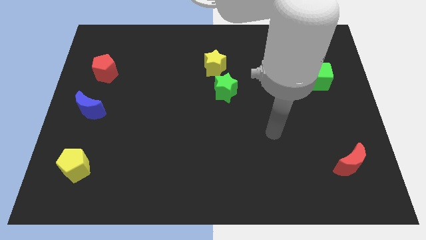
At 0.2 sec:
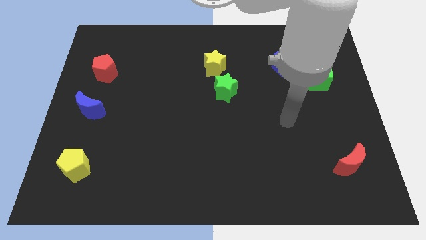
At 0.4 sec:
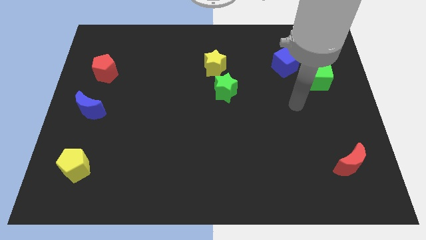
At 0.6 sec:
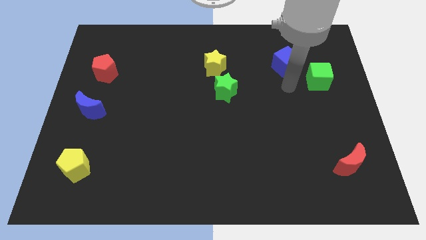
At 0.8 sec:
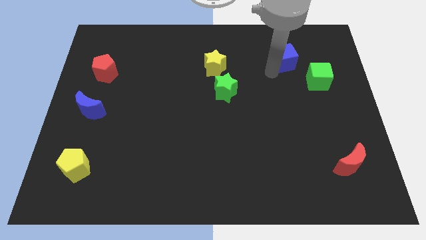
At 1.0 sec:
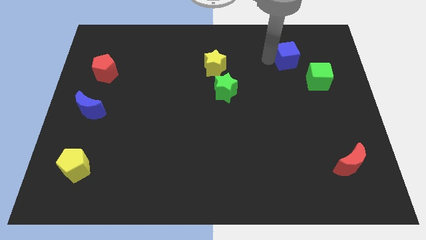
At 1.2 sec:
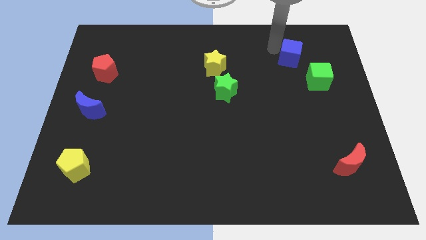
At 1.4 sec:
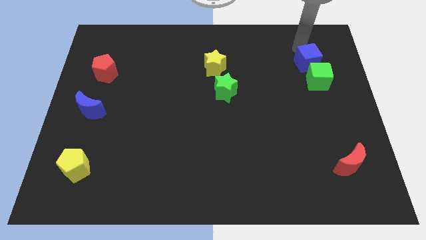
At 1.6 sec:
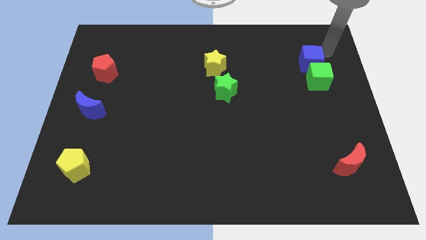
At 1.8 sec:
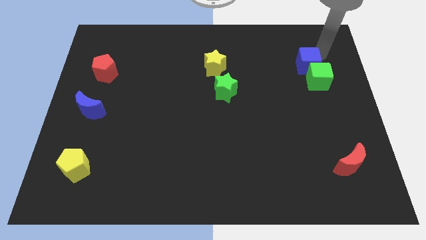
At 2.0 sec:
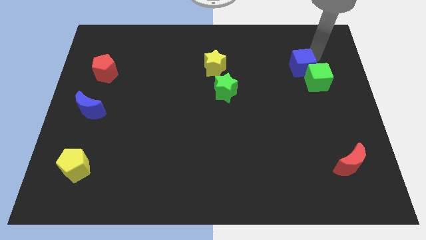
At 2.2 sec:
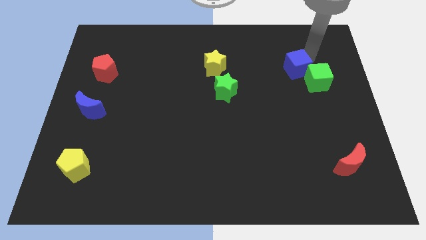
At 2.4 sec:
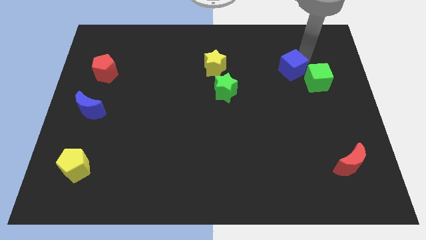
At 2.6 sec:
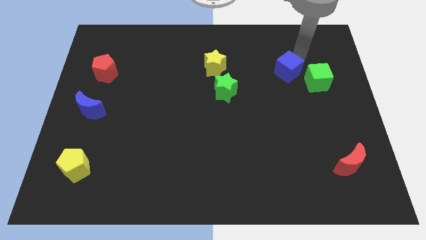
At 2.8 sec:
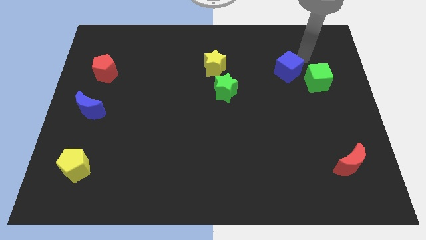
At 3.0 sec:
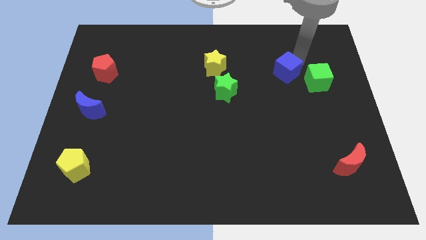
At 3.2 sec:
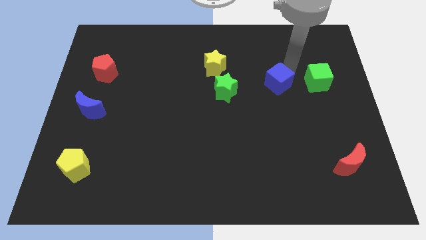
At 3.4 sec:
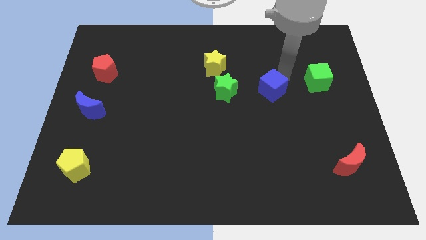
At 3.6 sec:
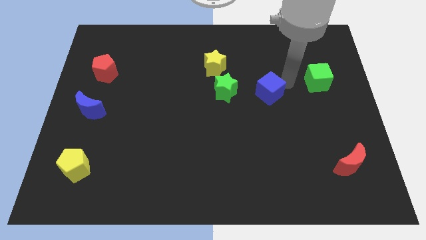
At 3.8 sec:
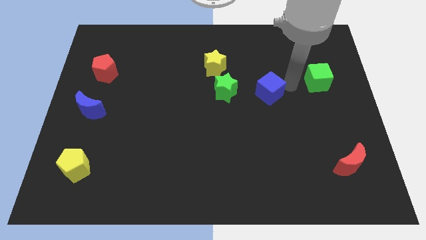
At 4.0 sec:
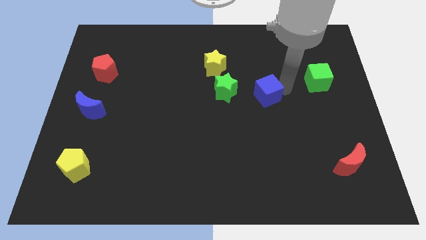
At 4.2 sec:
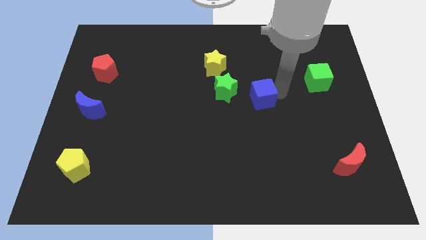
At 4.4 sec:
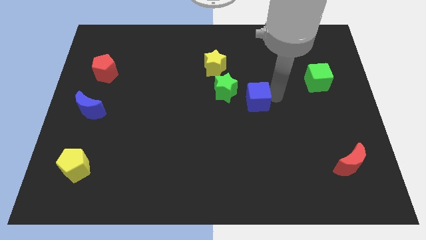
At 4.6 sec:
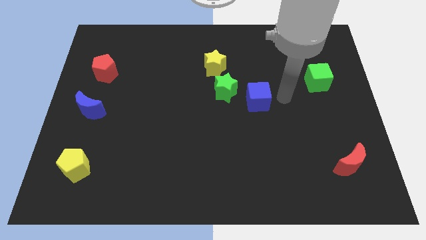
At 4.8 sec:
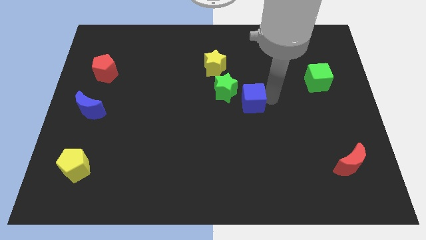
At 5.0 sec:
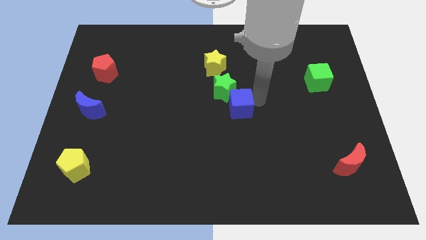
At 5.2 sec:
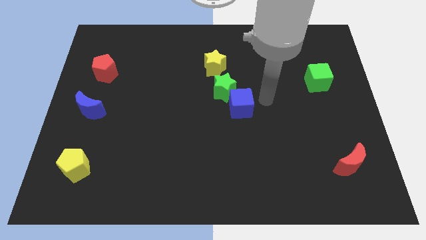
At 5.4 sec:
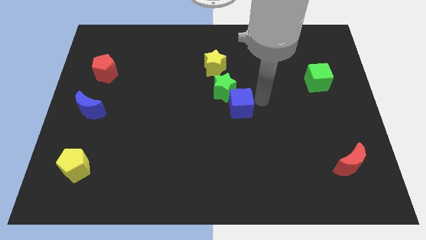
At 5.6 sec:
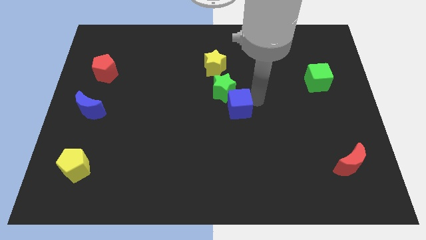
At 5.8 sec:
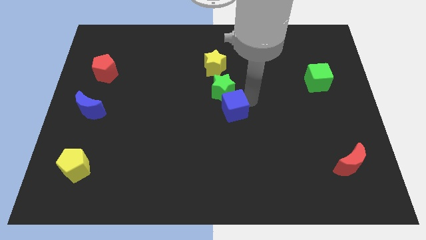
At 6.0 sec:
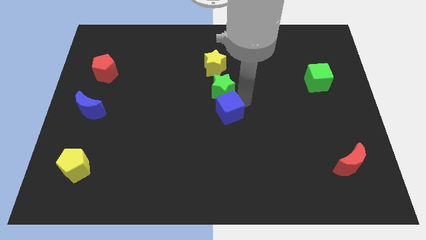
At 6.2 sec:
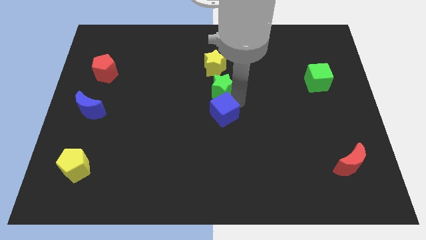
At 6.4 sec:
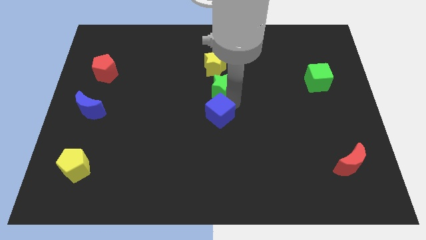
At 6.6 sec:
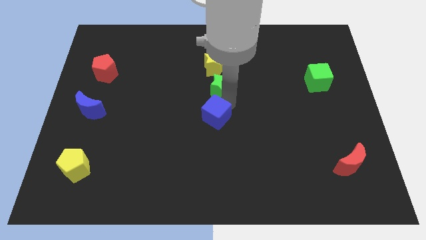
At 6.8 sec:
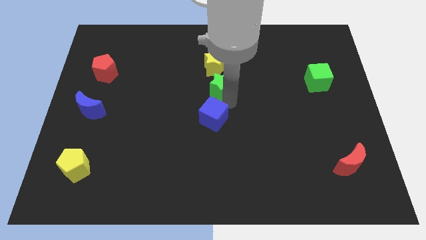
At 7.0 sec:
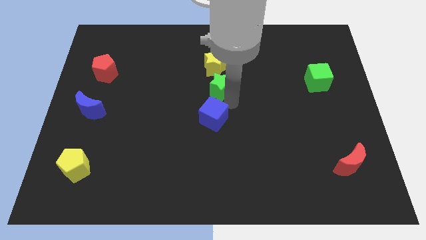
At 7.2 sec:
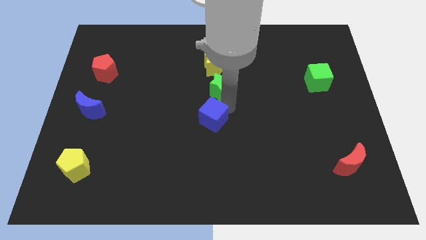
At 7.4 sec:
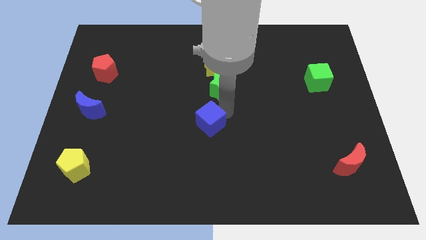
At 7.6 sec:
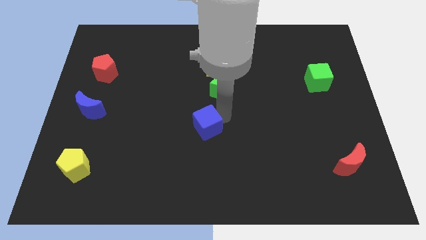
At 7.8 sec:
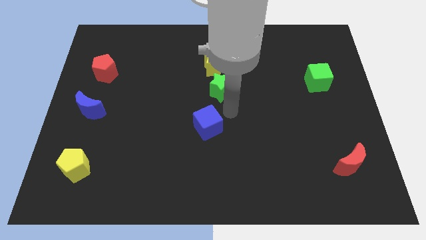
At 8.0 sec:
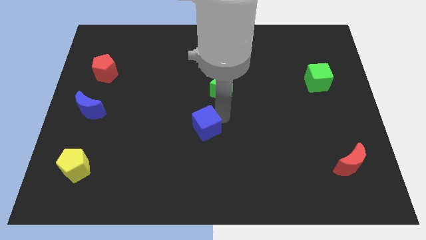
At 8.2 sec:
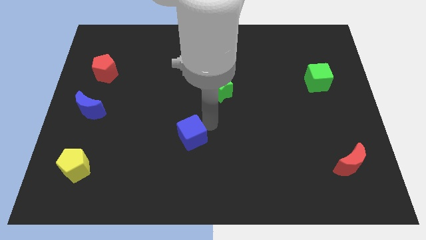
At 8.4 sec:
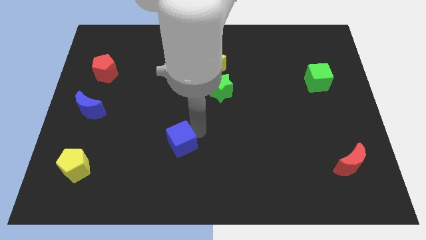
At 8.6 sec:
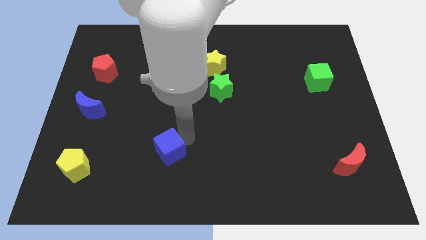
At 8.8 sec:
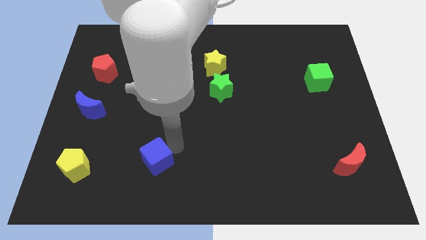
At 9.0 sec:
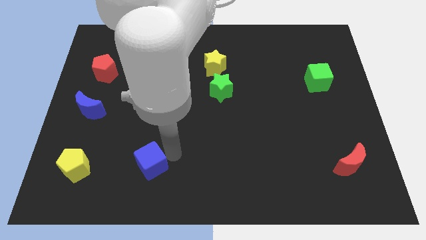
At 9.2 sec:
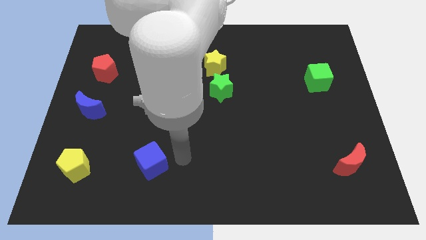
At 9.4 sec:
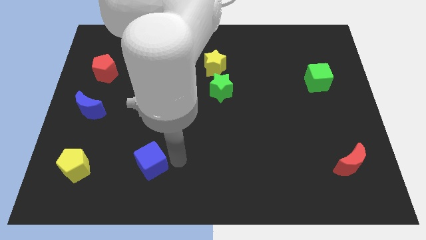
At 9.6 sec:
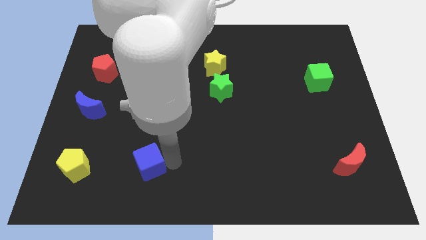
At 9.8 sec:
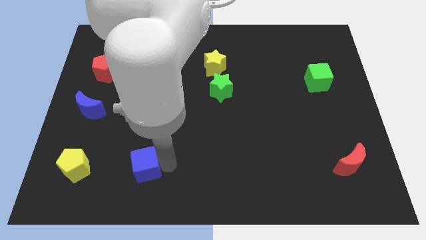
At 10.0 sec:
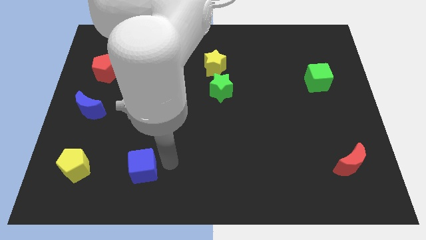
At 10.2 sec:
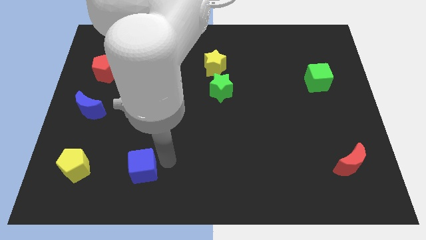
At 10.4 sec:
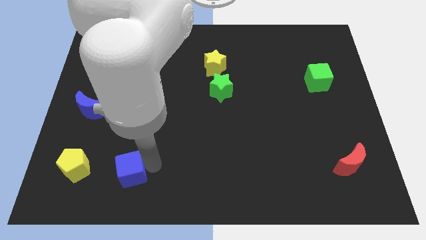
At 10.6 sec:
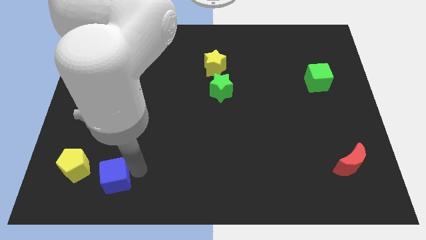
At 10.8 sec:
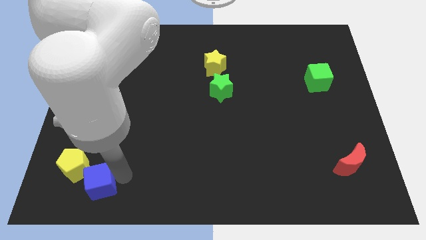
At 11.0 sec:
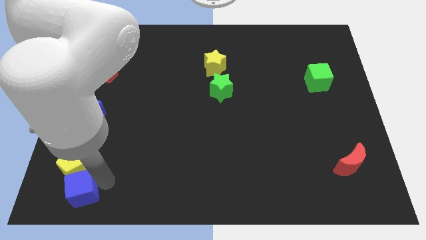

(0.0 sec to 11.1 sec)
put the blue cube to the bottom left

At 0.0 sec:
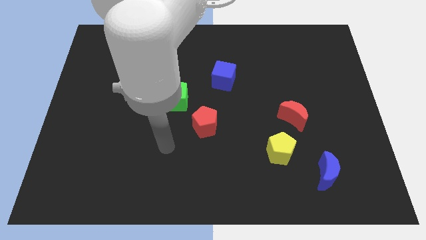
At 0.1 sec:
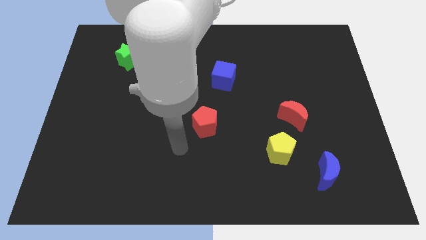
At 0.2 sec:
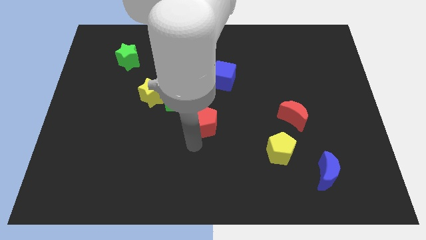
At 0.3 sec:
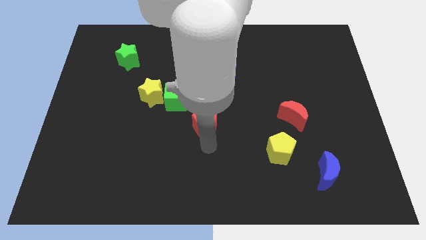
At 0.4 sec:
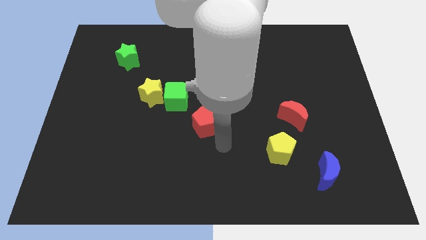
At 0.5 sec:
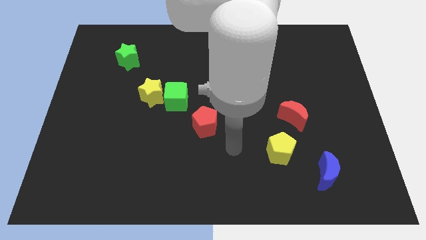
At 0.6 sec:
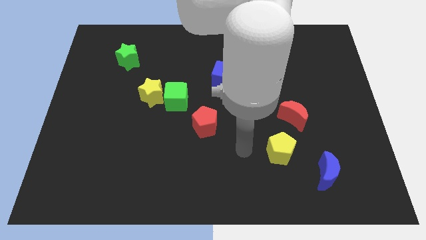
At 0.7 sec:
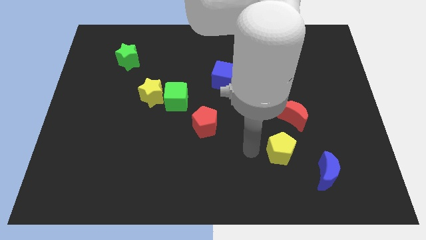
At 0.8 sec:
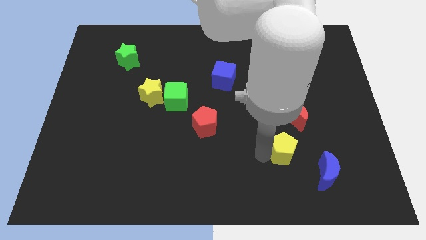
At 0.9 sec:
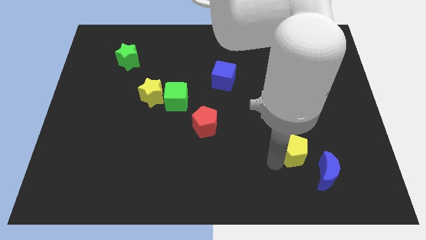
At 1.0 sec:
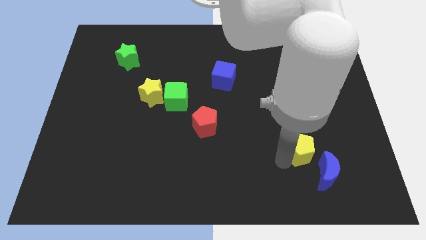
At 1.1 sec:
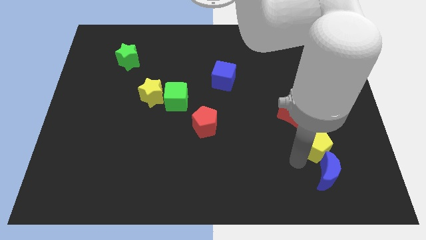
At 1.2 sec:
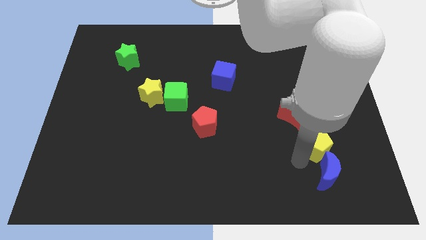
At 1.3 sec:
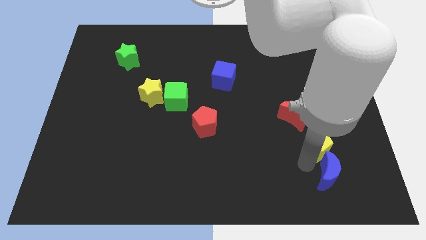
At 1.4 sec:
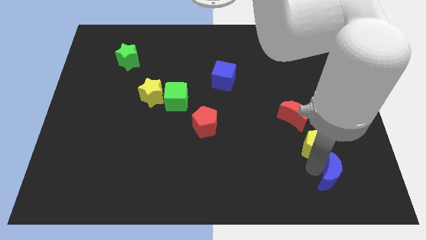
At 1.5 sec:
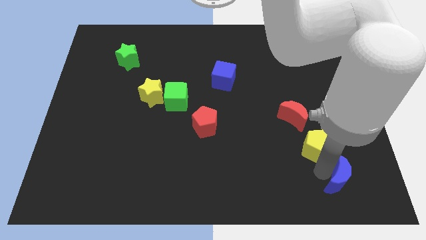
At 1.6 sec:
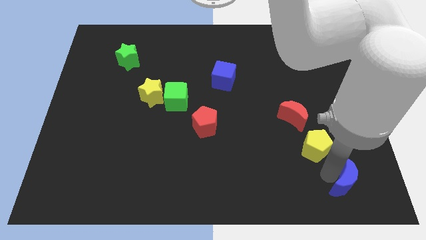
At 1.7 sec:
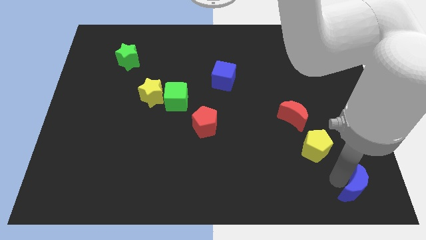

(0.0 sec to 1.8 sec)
move the blue moon to the lower right corner
